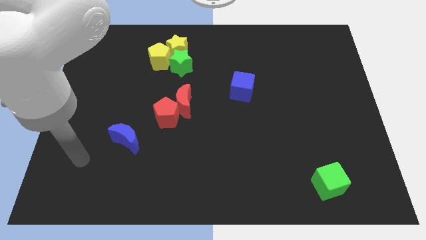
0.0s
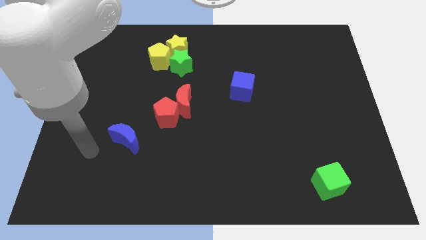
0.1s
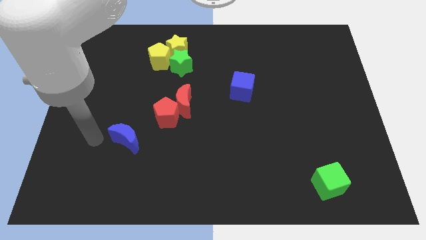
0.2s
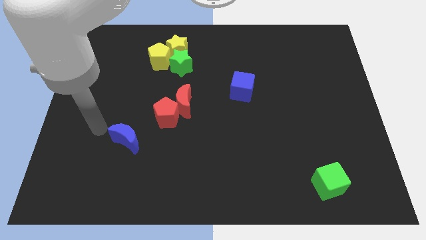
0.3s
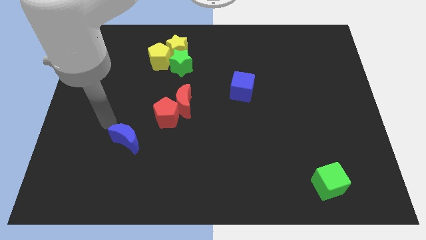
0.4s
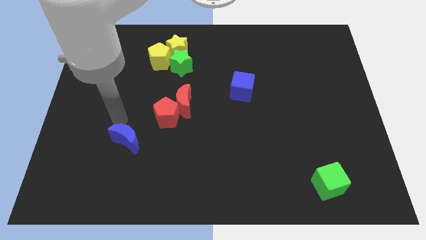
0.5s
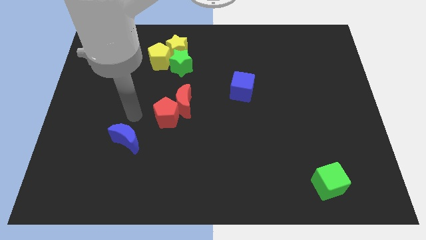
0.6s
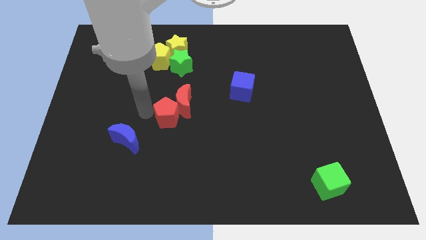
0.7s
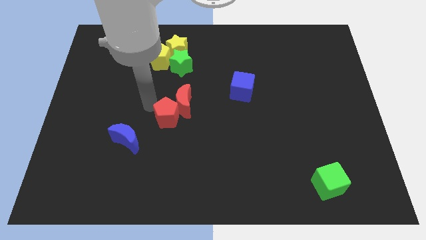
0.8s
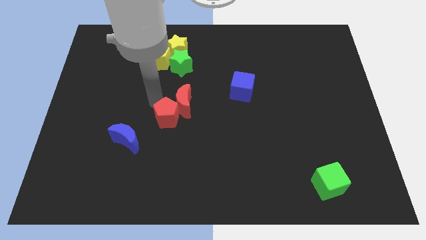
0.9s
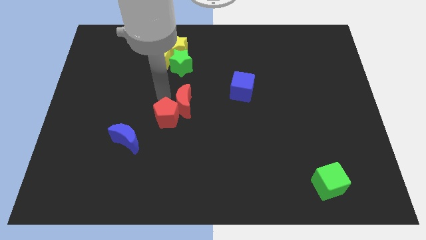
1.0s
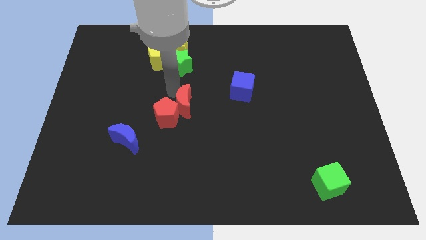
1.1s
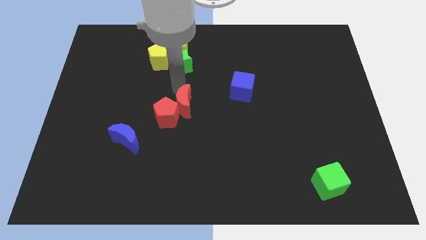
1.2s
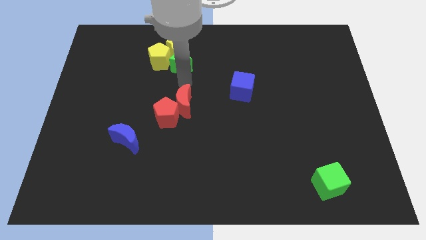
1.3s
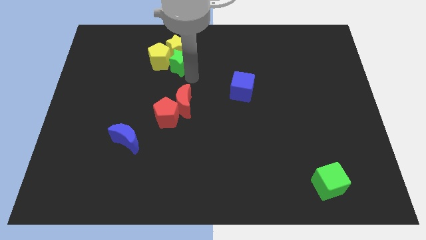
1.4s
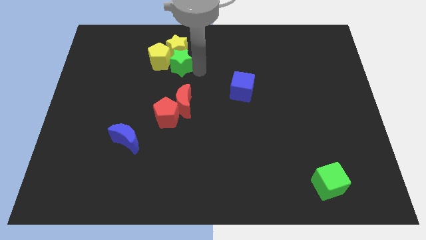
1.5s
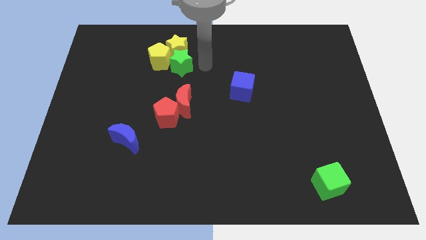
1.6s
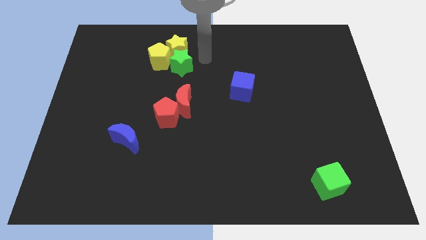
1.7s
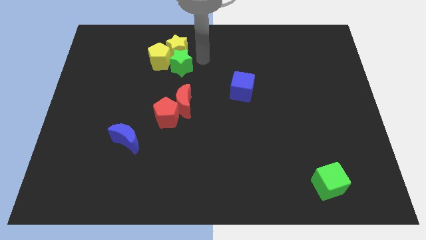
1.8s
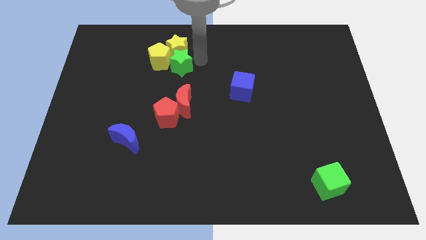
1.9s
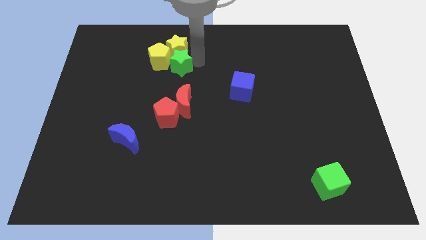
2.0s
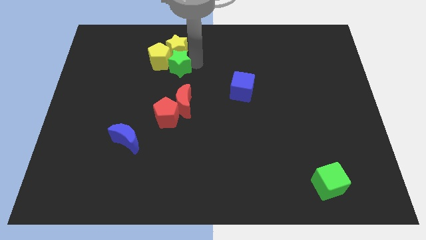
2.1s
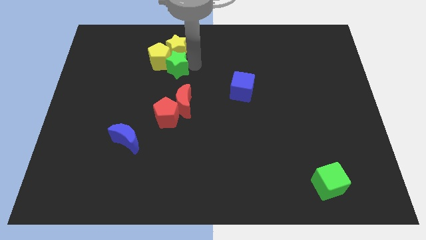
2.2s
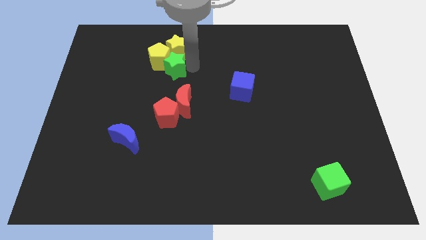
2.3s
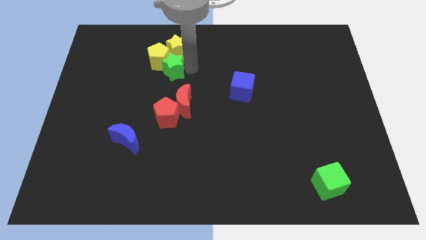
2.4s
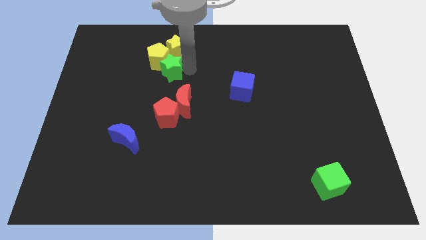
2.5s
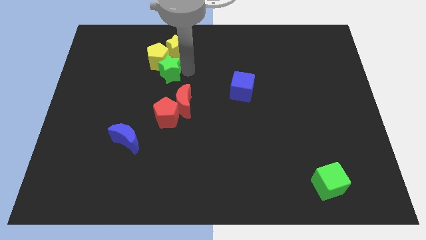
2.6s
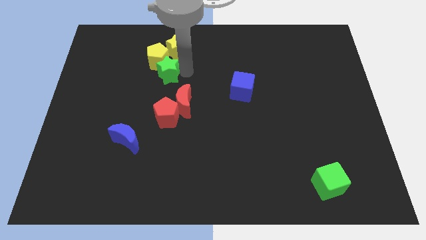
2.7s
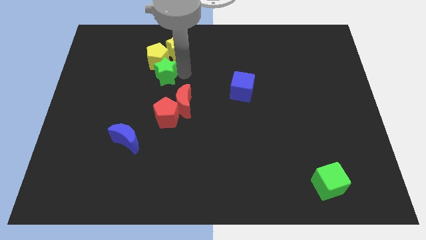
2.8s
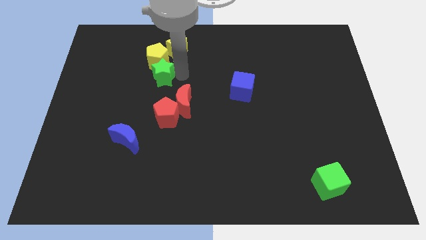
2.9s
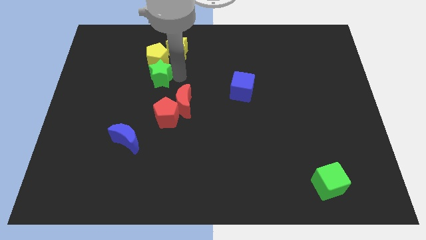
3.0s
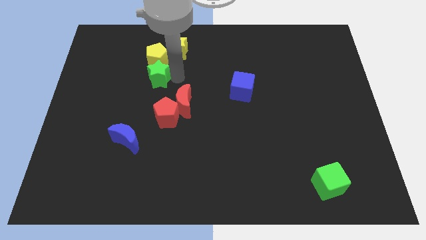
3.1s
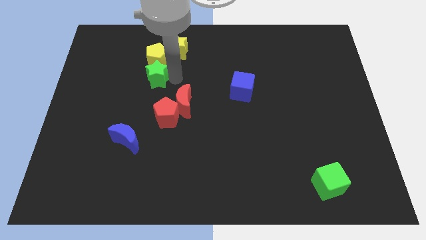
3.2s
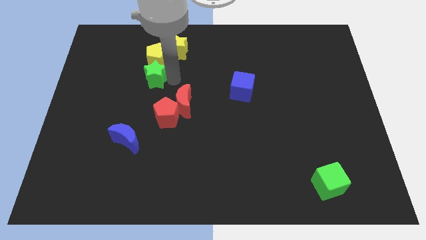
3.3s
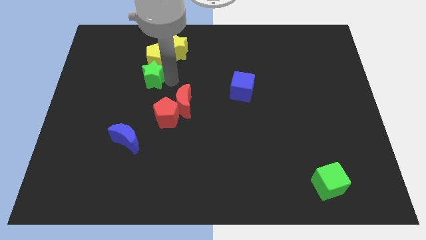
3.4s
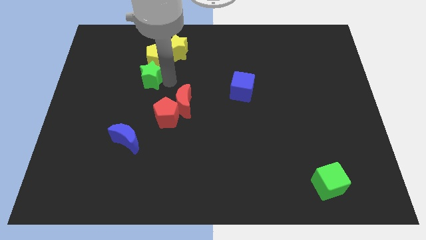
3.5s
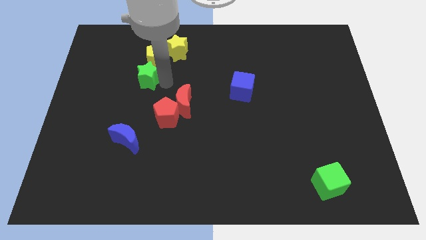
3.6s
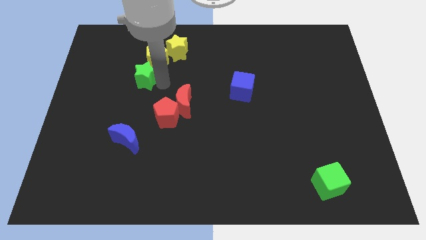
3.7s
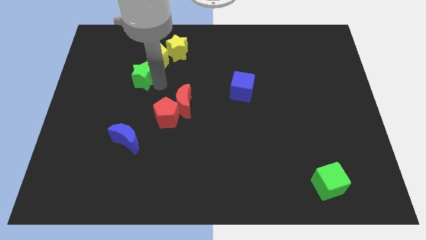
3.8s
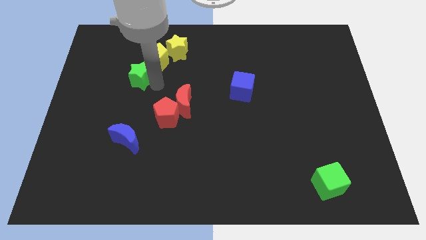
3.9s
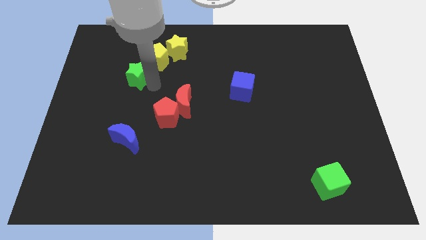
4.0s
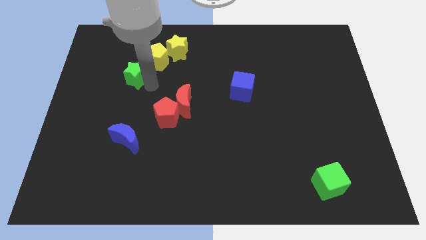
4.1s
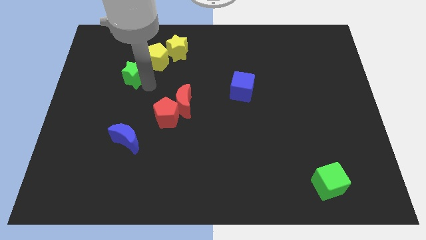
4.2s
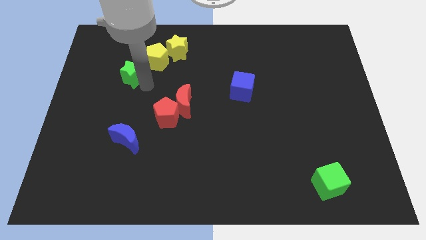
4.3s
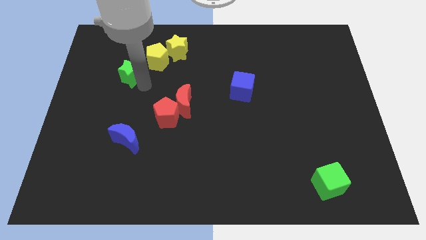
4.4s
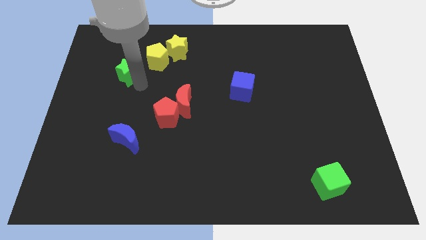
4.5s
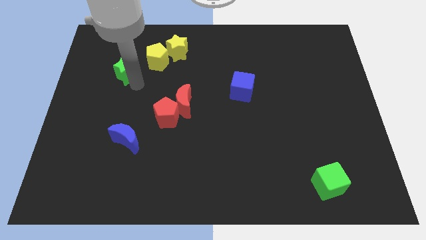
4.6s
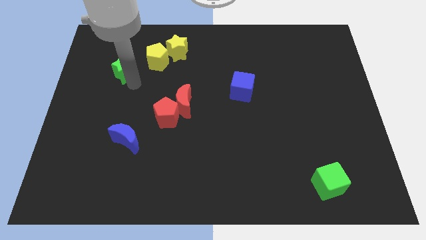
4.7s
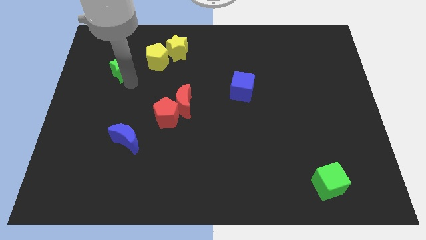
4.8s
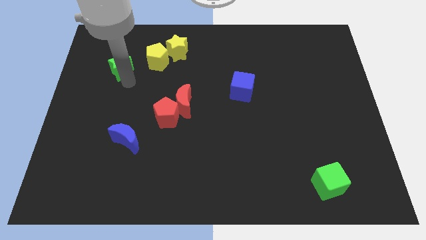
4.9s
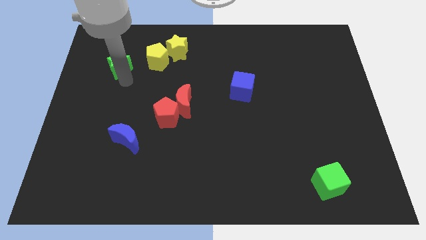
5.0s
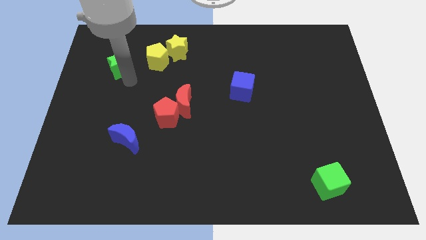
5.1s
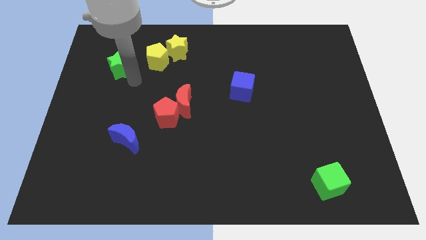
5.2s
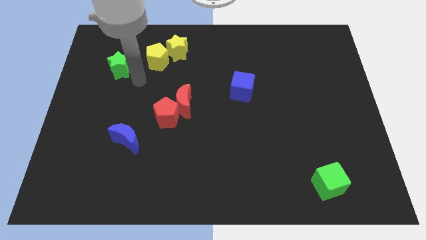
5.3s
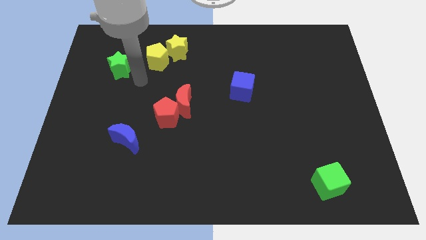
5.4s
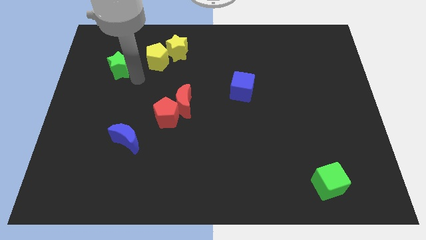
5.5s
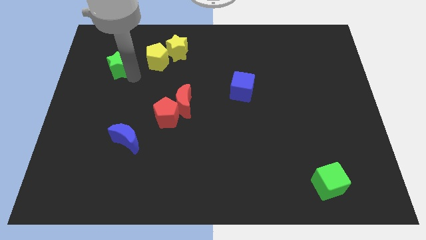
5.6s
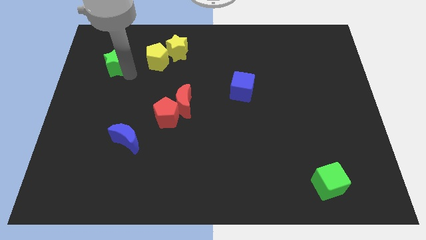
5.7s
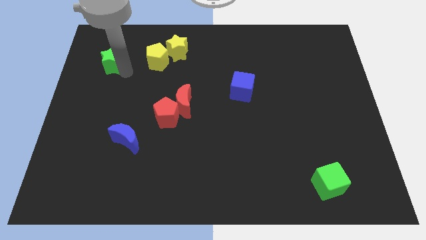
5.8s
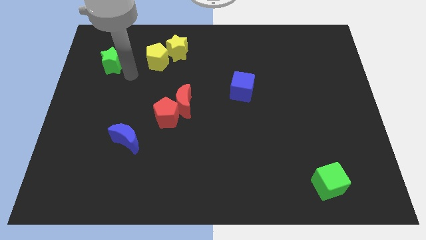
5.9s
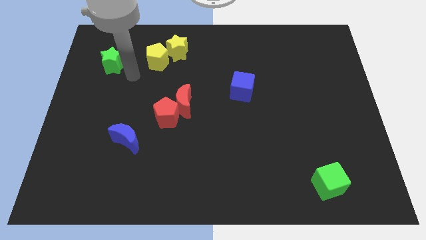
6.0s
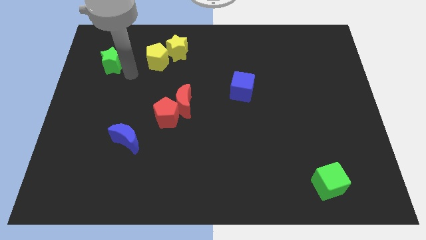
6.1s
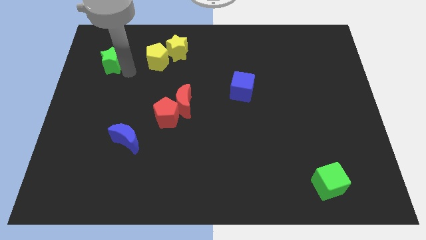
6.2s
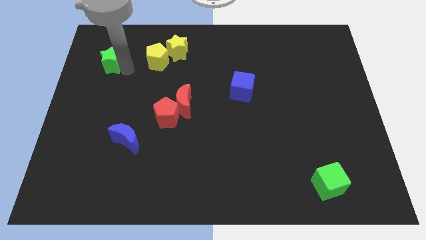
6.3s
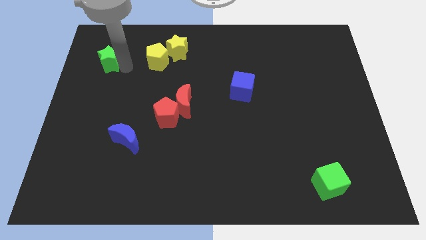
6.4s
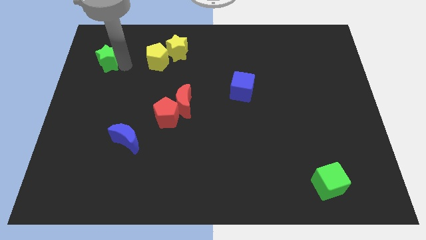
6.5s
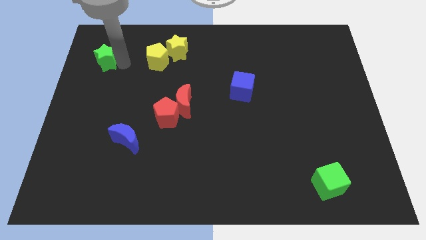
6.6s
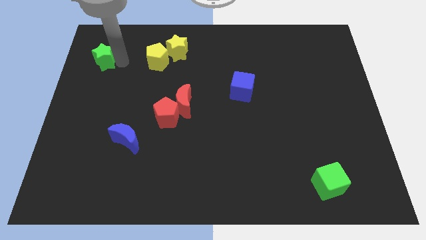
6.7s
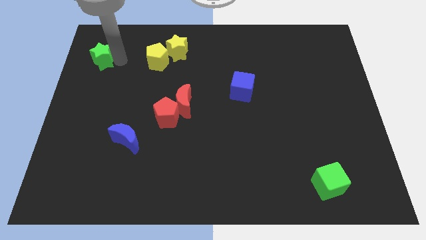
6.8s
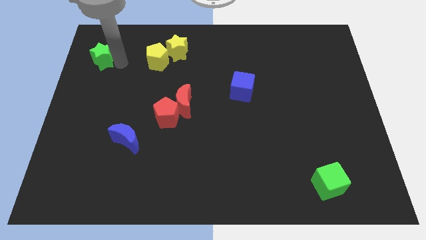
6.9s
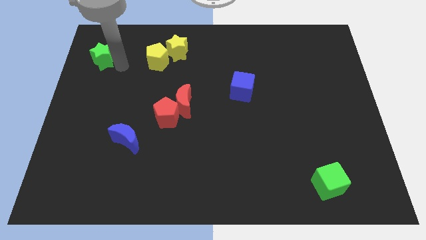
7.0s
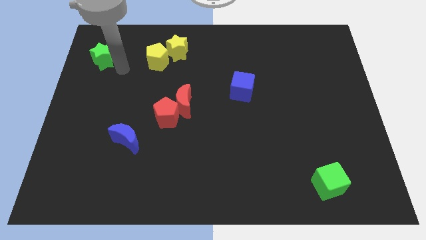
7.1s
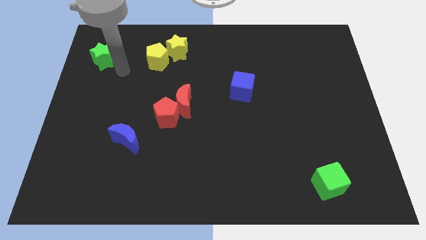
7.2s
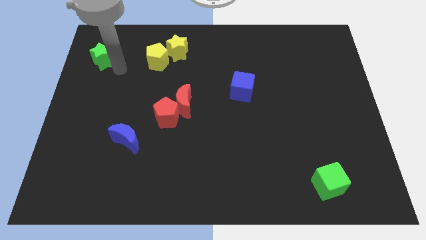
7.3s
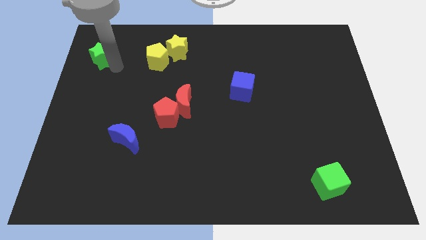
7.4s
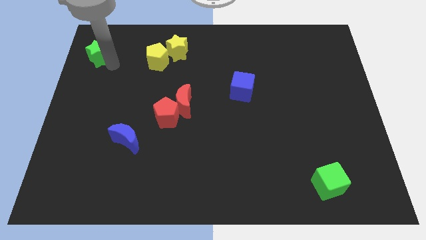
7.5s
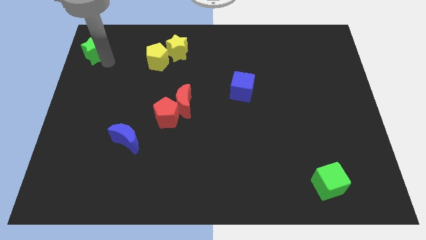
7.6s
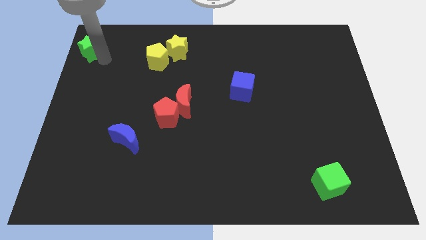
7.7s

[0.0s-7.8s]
put the green star to the upper left corner
